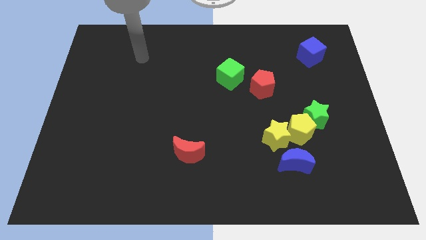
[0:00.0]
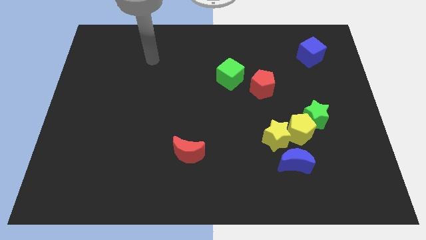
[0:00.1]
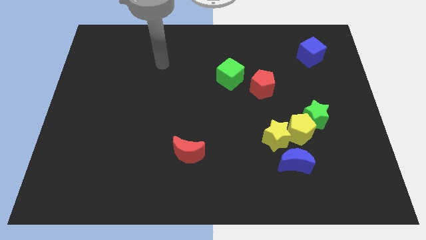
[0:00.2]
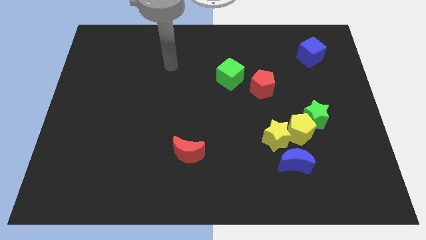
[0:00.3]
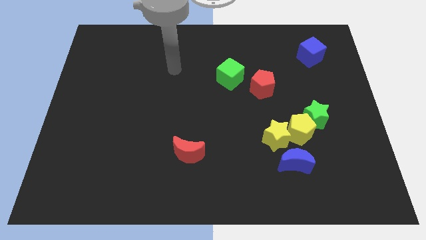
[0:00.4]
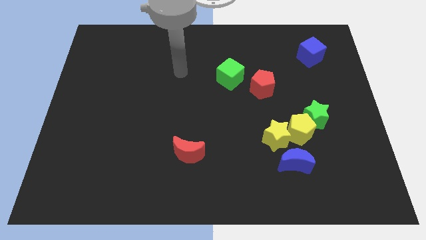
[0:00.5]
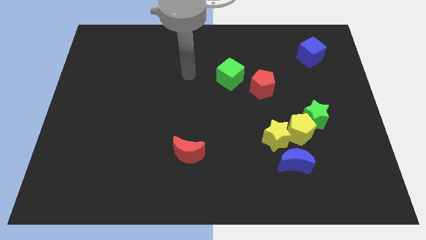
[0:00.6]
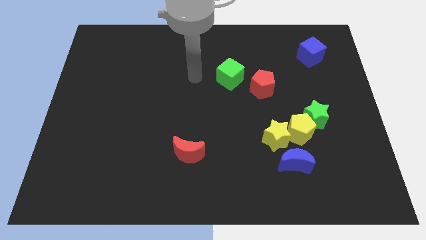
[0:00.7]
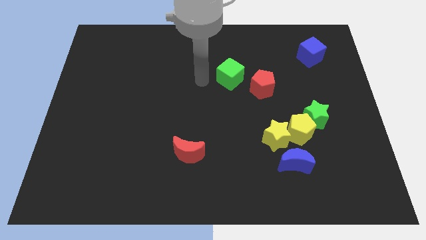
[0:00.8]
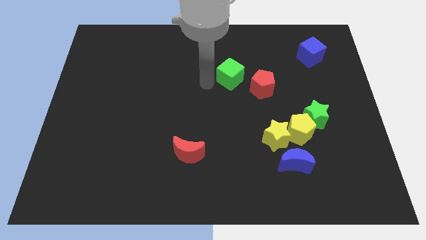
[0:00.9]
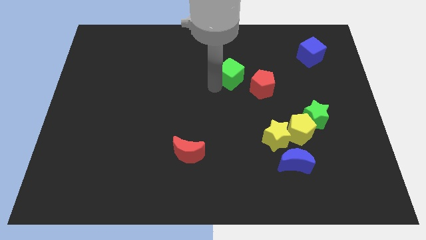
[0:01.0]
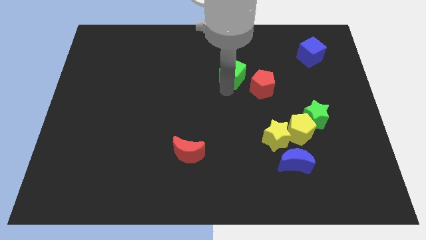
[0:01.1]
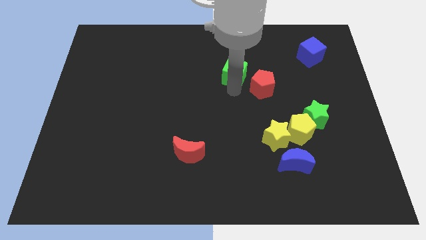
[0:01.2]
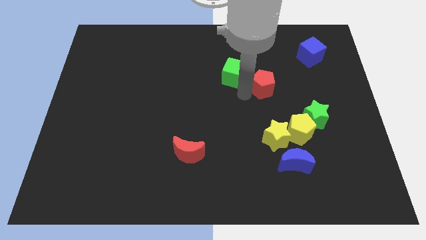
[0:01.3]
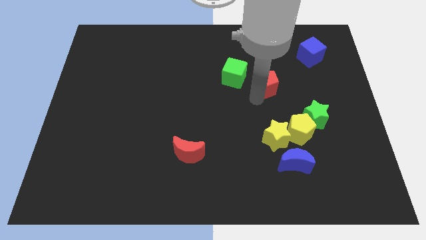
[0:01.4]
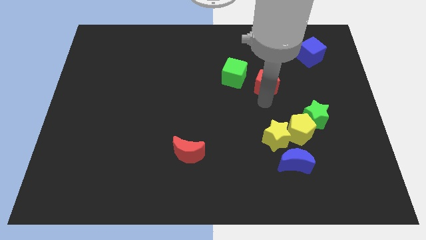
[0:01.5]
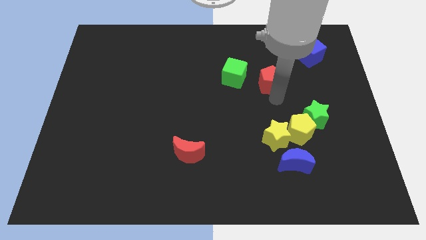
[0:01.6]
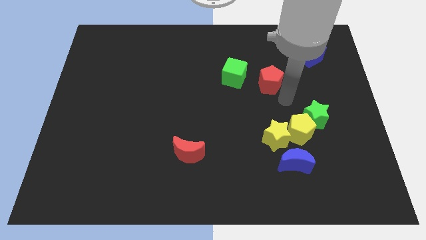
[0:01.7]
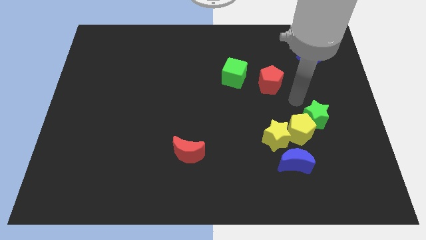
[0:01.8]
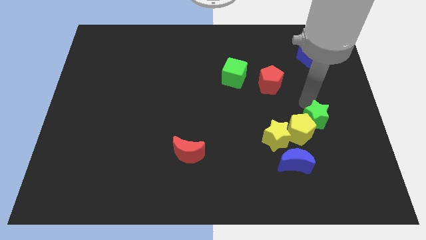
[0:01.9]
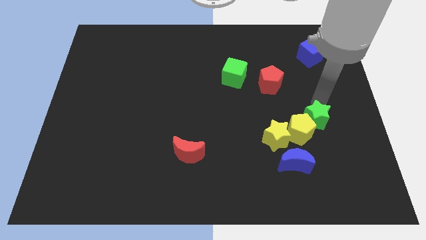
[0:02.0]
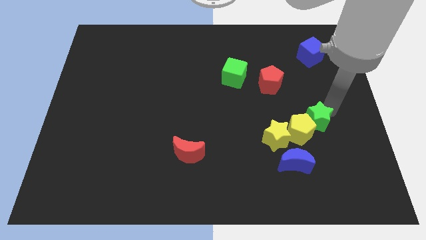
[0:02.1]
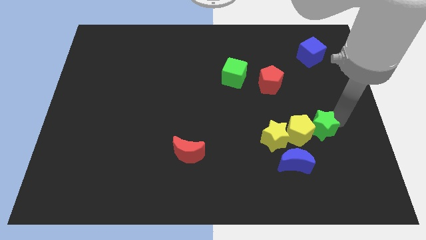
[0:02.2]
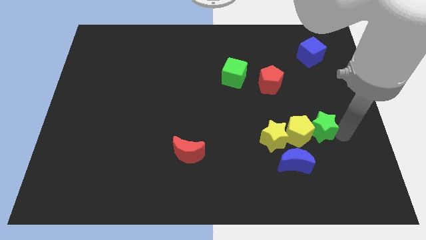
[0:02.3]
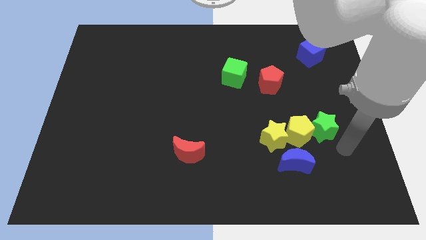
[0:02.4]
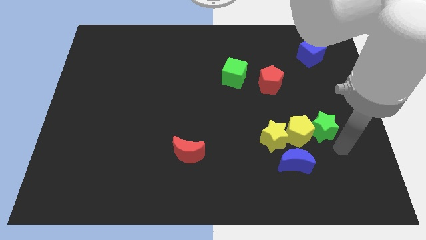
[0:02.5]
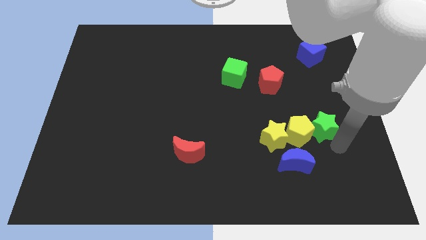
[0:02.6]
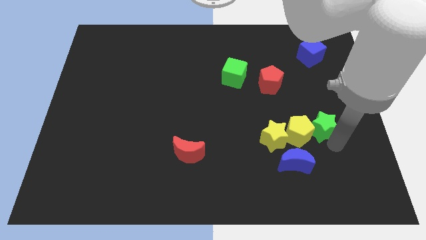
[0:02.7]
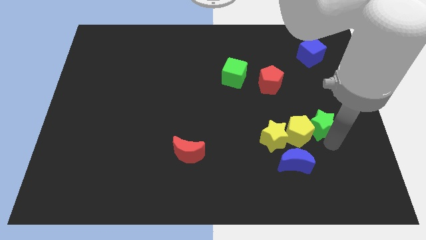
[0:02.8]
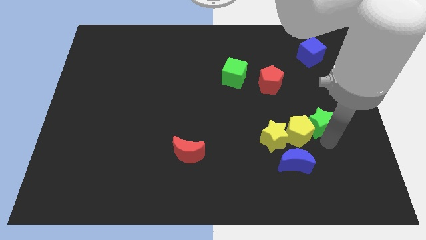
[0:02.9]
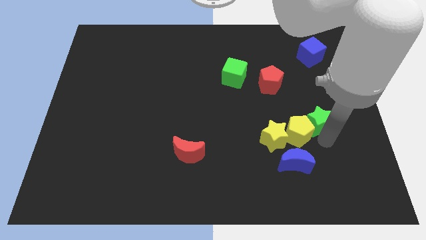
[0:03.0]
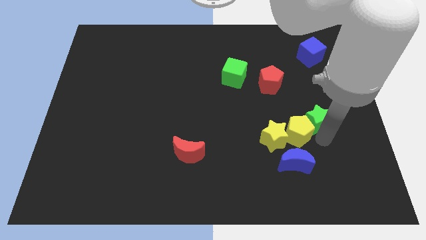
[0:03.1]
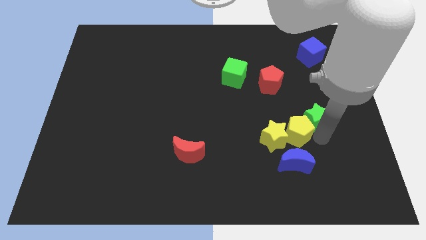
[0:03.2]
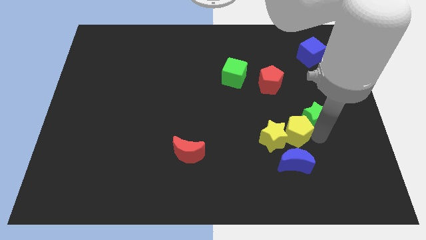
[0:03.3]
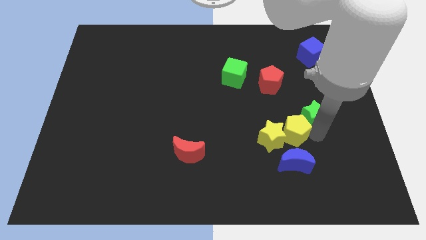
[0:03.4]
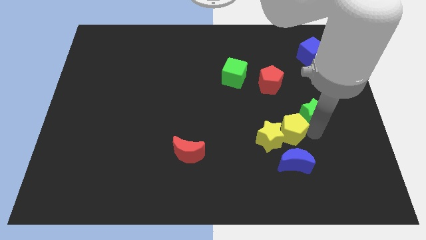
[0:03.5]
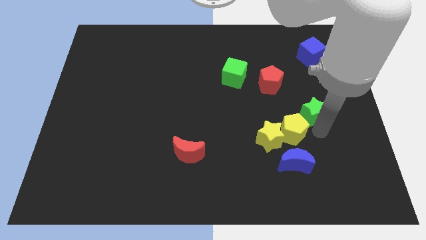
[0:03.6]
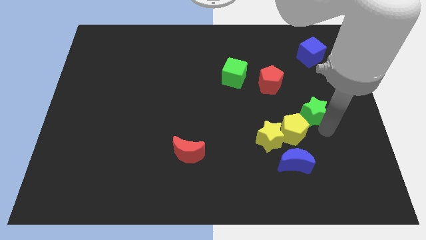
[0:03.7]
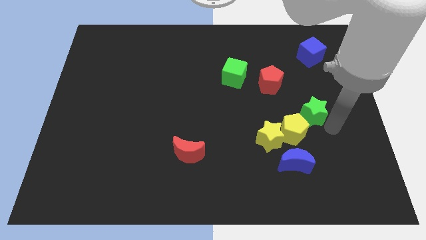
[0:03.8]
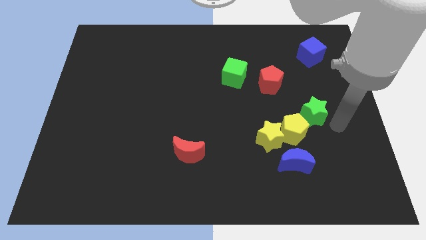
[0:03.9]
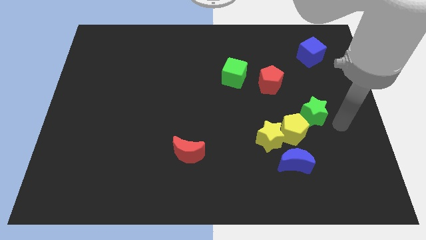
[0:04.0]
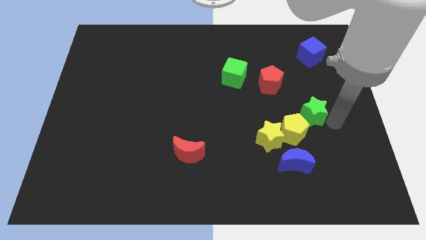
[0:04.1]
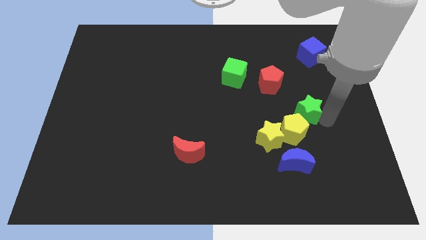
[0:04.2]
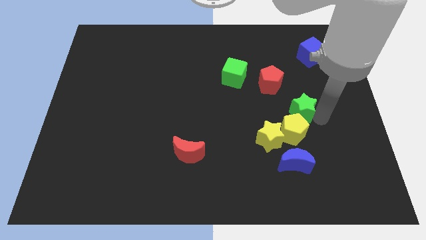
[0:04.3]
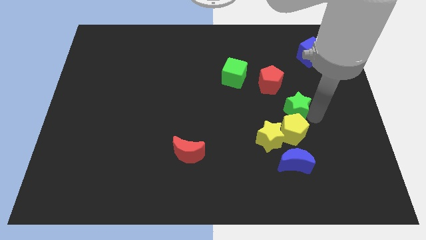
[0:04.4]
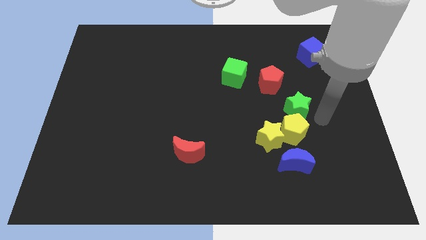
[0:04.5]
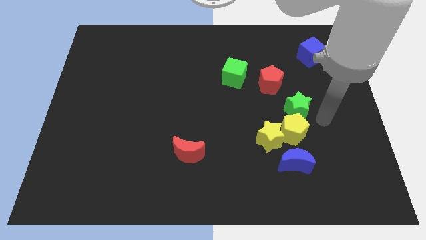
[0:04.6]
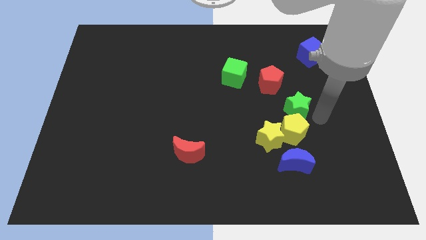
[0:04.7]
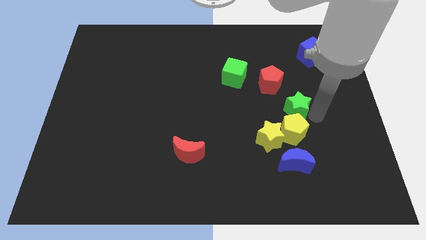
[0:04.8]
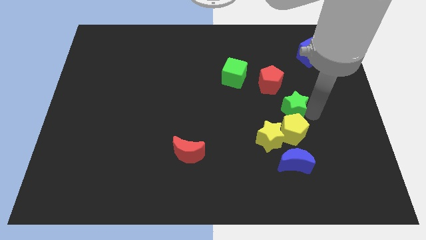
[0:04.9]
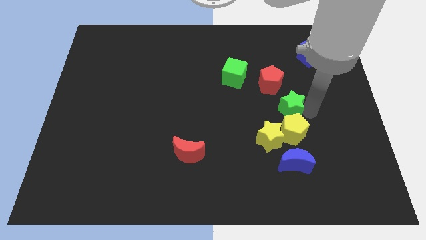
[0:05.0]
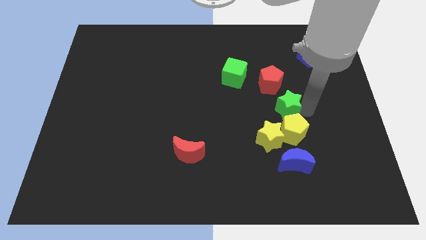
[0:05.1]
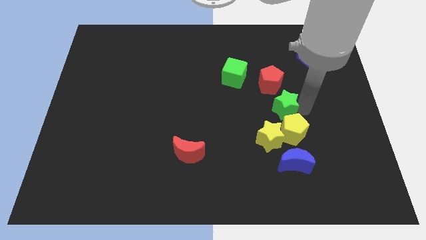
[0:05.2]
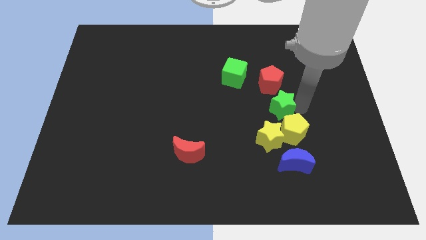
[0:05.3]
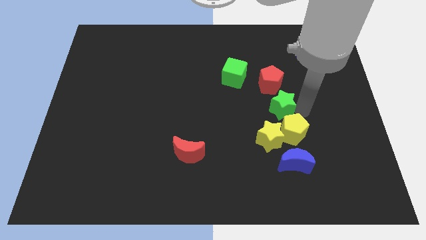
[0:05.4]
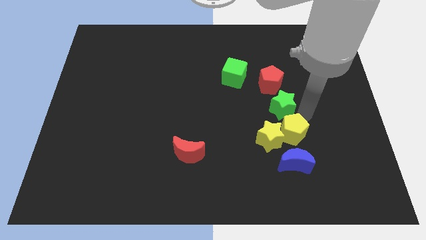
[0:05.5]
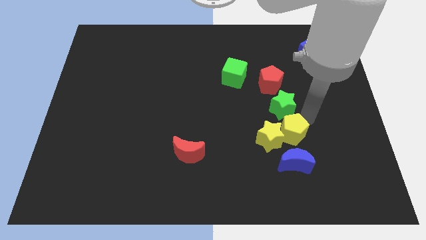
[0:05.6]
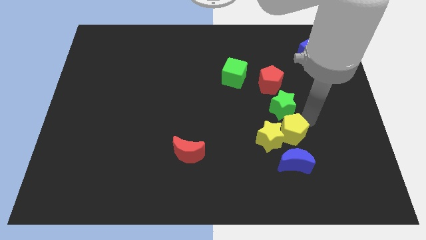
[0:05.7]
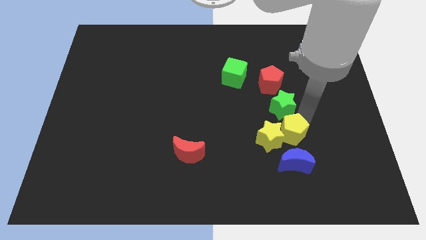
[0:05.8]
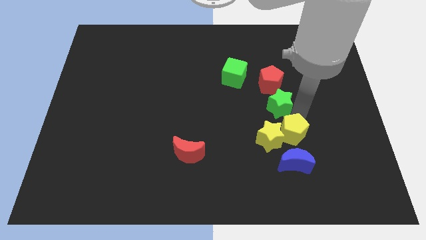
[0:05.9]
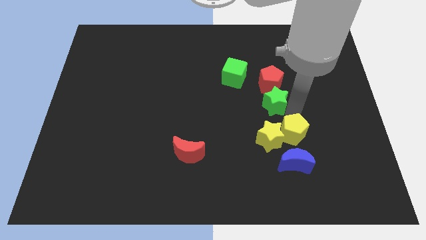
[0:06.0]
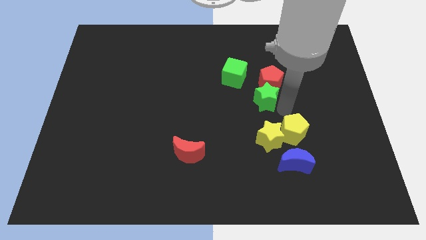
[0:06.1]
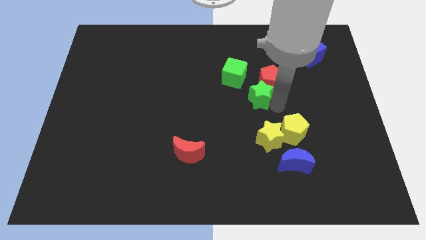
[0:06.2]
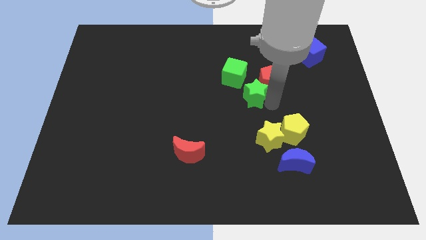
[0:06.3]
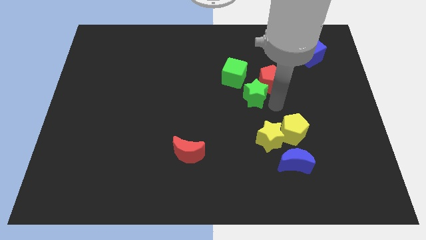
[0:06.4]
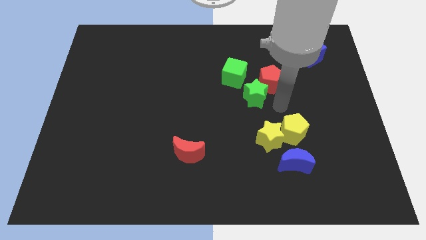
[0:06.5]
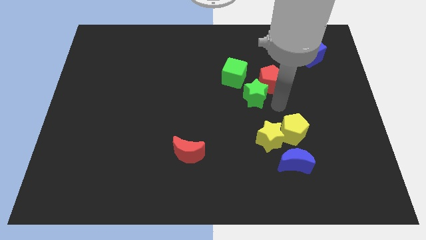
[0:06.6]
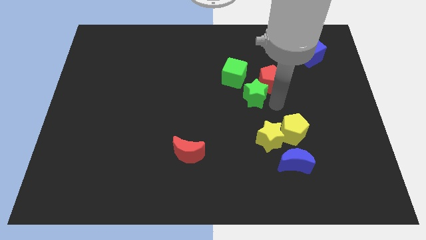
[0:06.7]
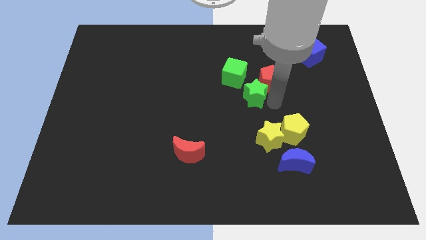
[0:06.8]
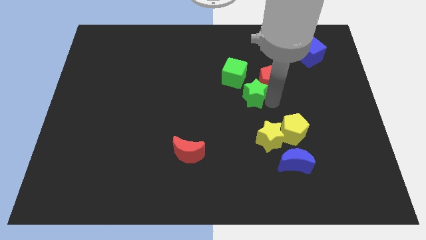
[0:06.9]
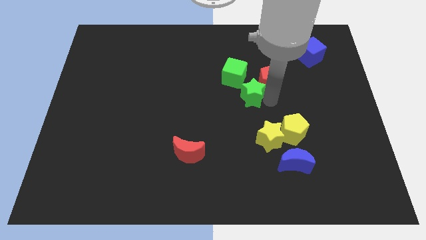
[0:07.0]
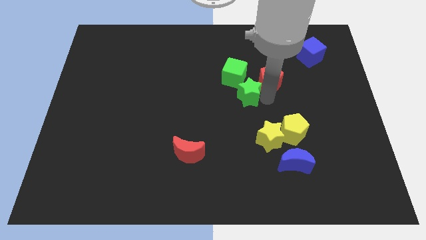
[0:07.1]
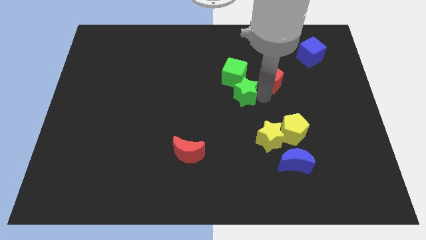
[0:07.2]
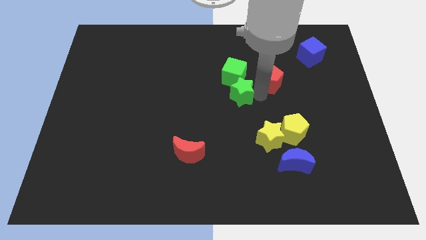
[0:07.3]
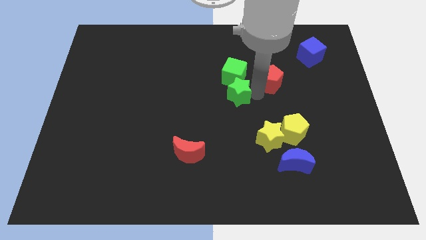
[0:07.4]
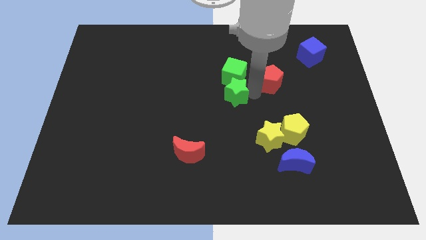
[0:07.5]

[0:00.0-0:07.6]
move the green star to the bottom left of the green cube

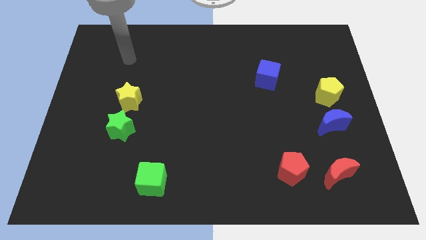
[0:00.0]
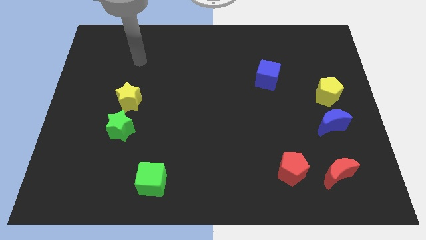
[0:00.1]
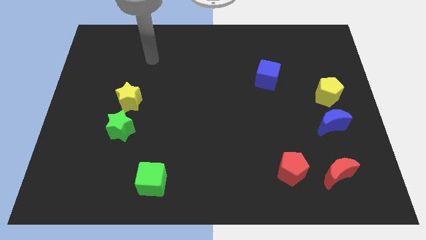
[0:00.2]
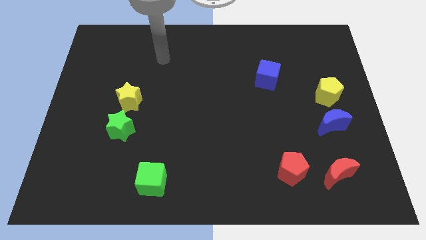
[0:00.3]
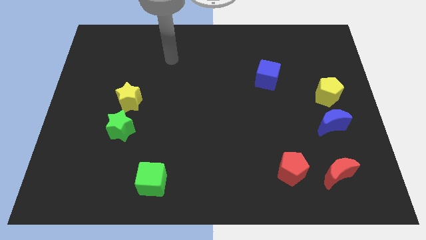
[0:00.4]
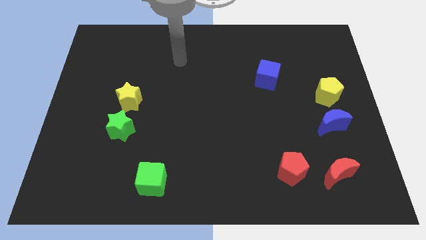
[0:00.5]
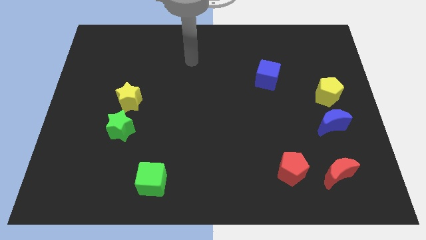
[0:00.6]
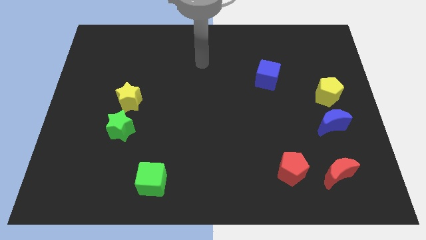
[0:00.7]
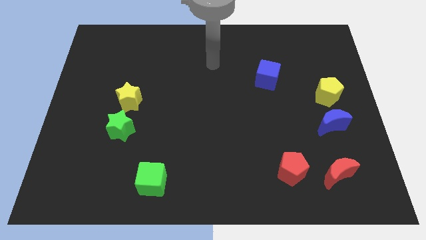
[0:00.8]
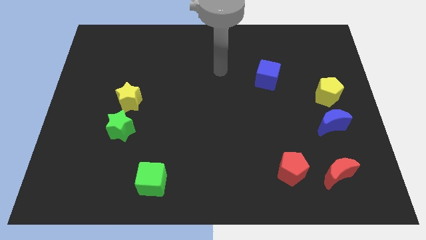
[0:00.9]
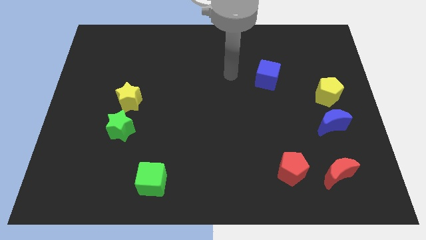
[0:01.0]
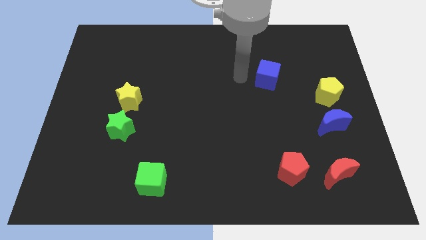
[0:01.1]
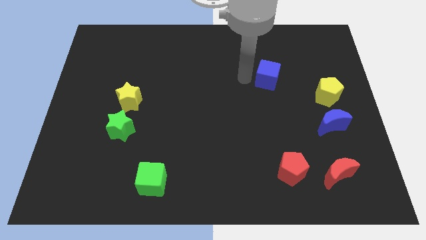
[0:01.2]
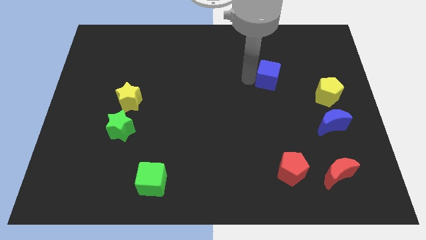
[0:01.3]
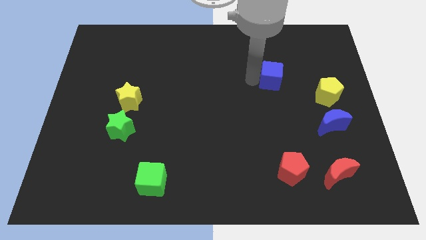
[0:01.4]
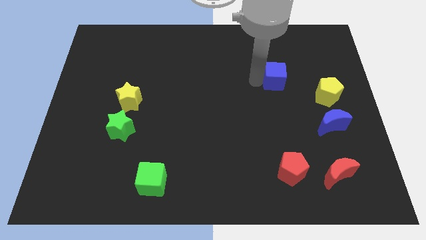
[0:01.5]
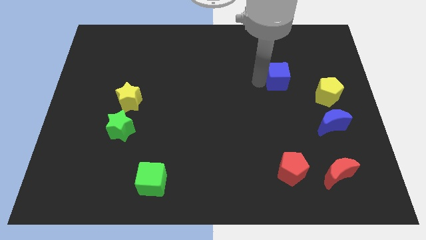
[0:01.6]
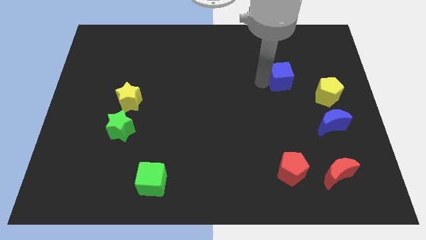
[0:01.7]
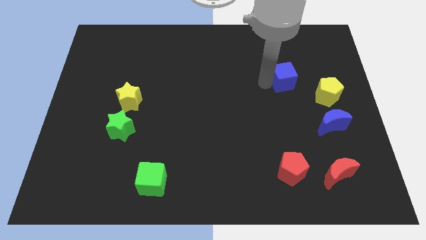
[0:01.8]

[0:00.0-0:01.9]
move the blue cube to the top left side of the yellow pentagon
